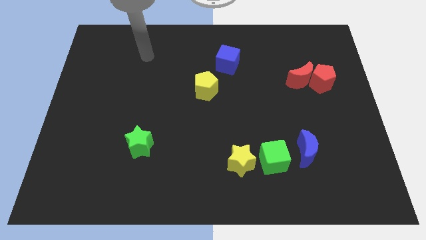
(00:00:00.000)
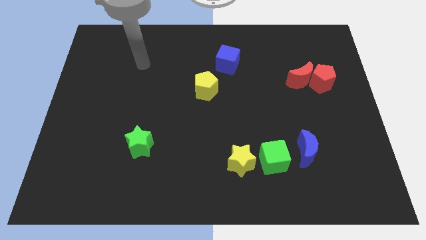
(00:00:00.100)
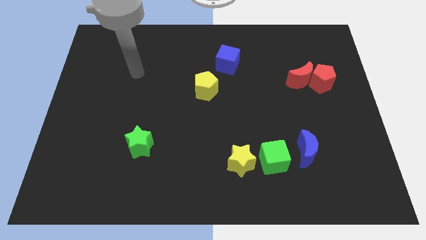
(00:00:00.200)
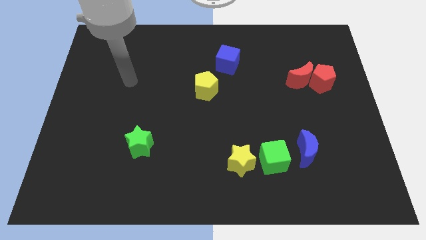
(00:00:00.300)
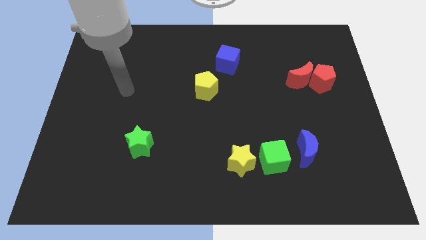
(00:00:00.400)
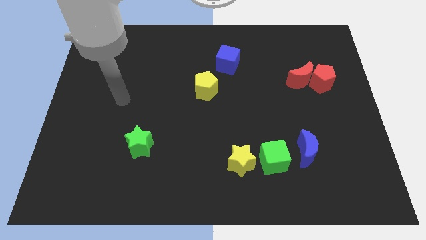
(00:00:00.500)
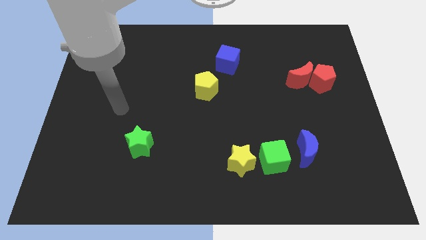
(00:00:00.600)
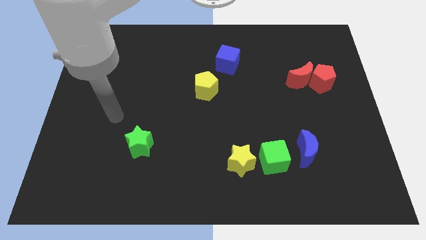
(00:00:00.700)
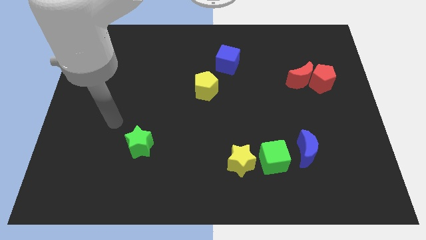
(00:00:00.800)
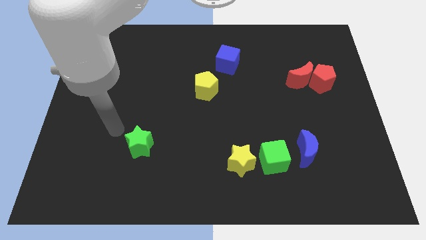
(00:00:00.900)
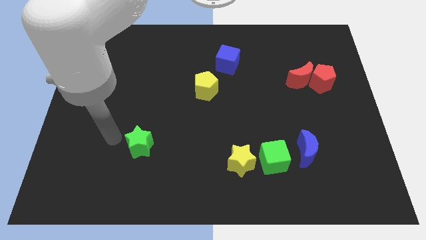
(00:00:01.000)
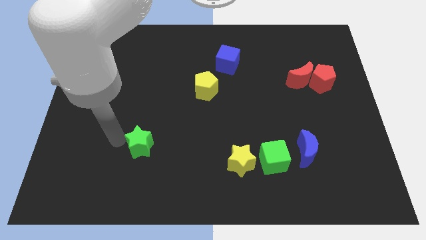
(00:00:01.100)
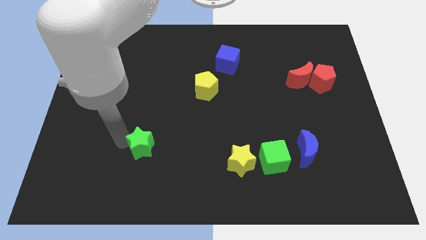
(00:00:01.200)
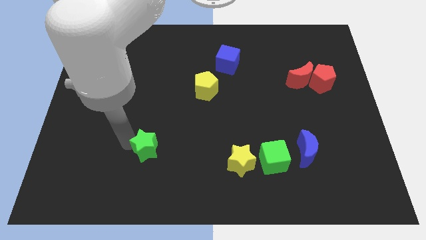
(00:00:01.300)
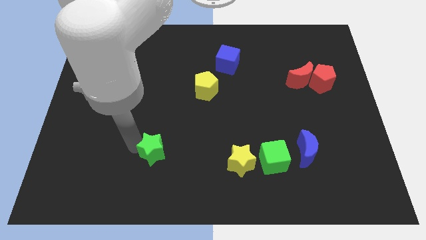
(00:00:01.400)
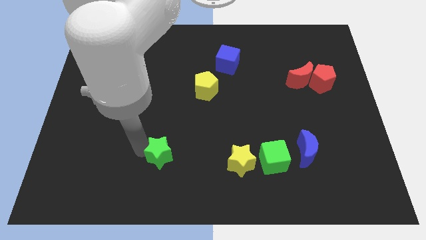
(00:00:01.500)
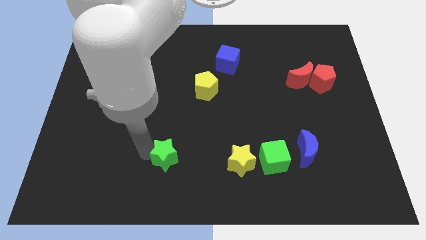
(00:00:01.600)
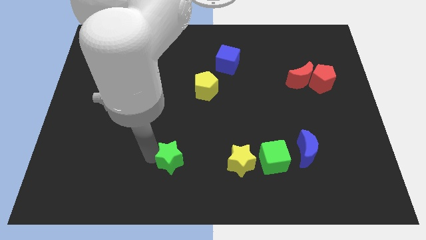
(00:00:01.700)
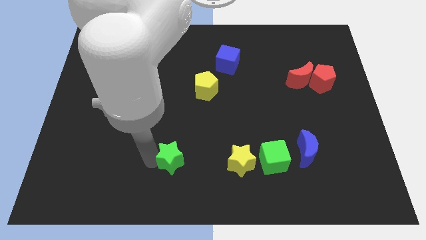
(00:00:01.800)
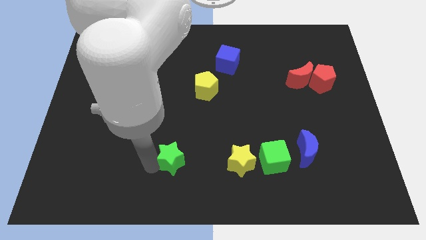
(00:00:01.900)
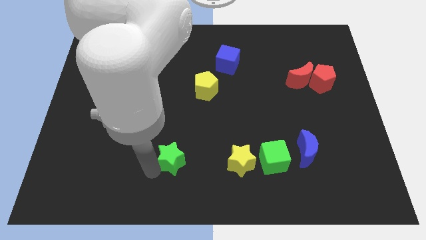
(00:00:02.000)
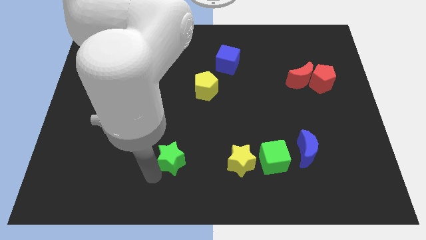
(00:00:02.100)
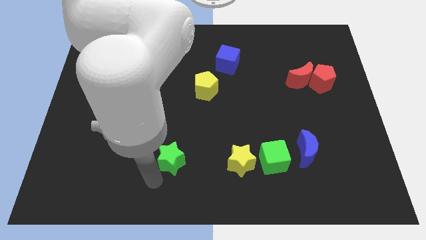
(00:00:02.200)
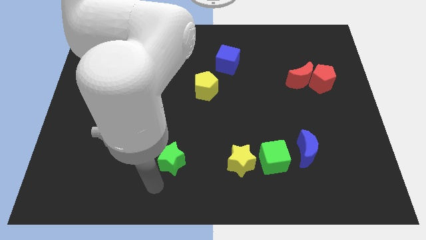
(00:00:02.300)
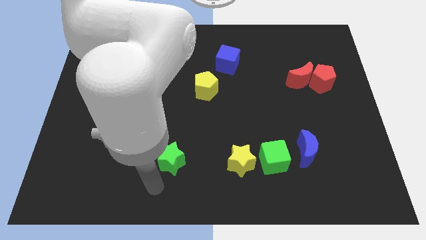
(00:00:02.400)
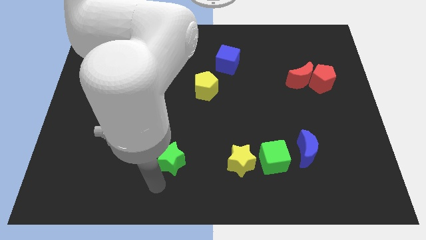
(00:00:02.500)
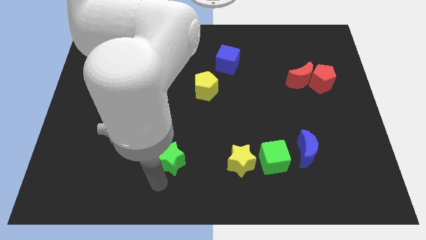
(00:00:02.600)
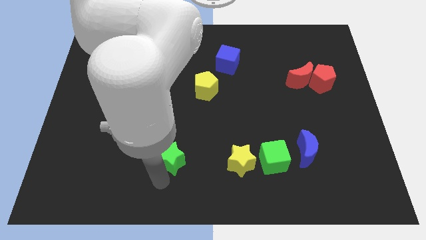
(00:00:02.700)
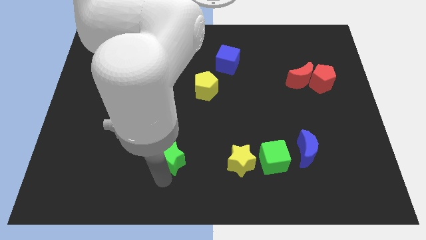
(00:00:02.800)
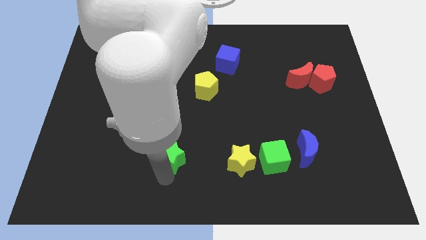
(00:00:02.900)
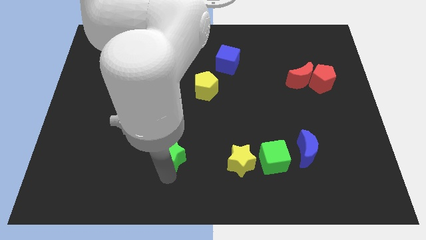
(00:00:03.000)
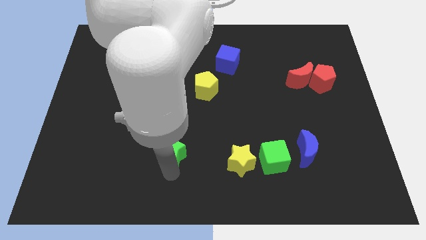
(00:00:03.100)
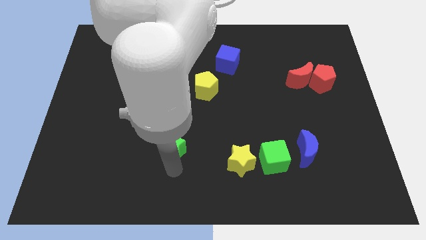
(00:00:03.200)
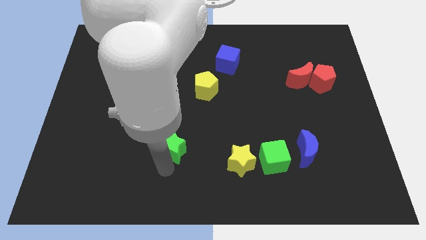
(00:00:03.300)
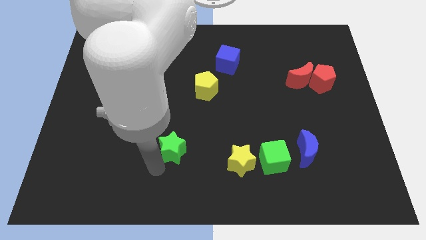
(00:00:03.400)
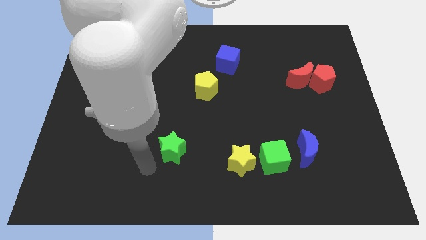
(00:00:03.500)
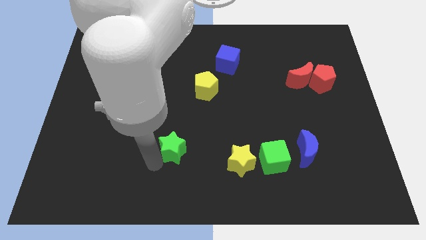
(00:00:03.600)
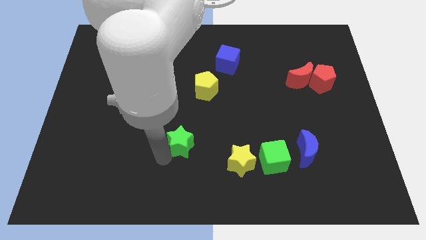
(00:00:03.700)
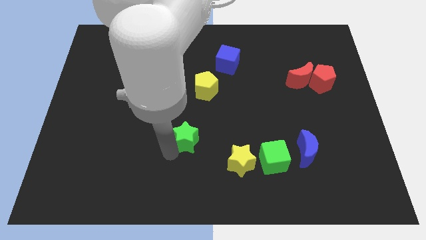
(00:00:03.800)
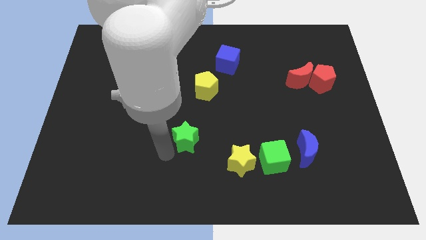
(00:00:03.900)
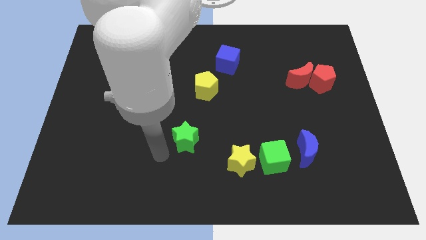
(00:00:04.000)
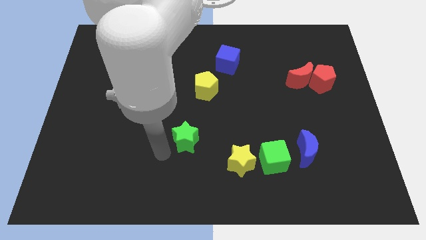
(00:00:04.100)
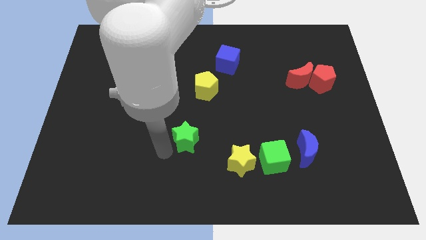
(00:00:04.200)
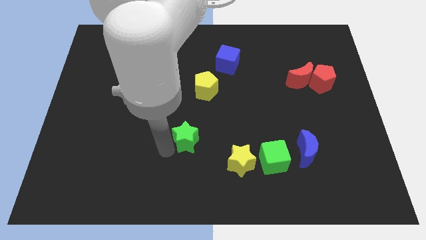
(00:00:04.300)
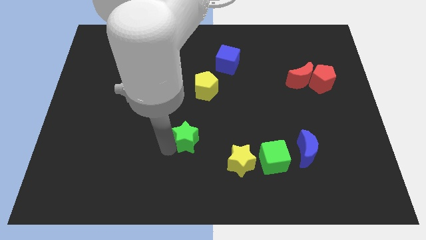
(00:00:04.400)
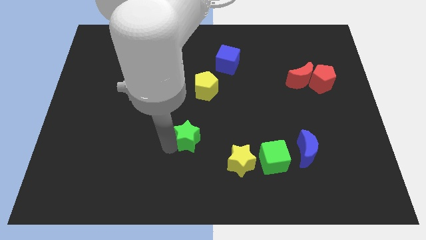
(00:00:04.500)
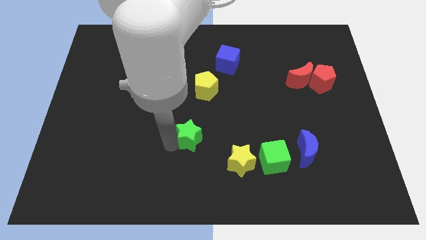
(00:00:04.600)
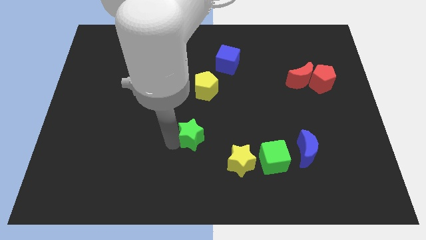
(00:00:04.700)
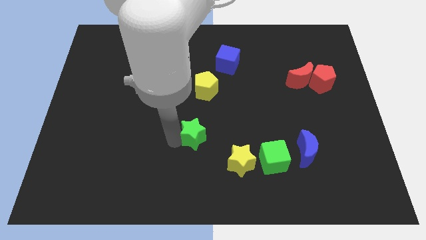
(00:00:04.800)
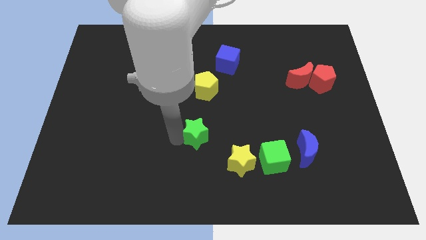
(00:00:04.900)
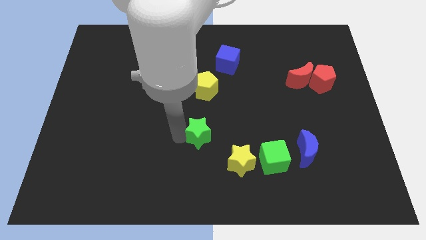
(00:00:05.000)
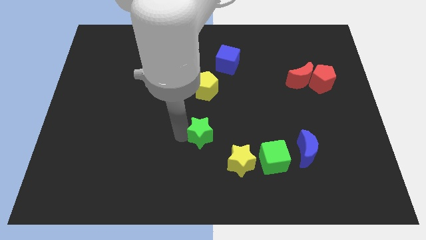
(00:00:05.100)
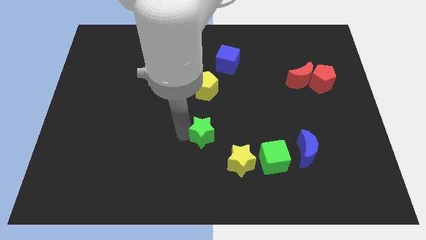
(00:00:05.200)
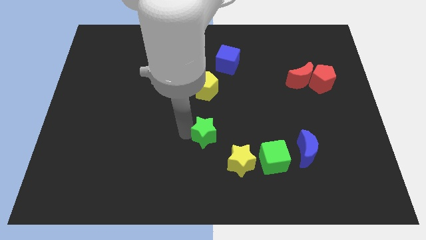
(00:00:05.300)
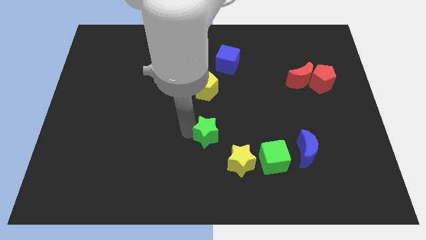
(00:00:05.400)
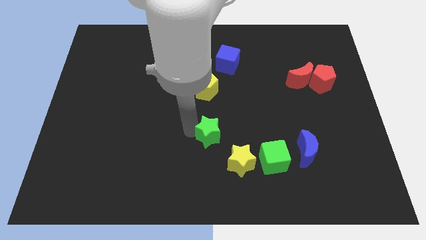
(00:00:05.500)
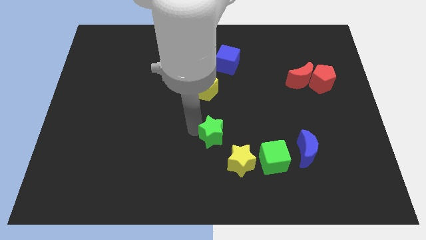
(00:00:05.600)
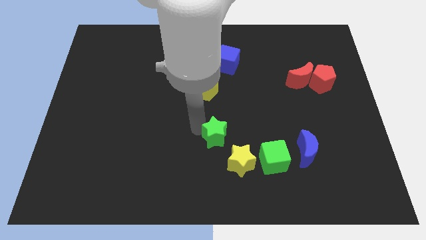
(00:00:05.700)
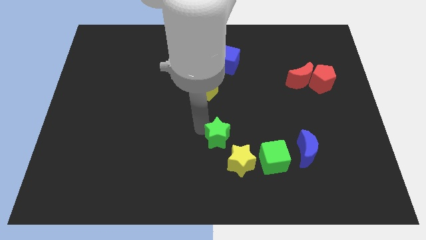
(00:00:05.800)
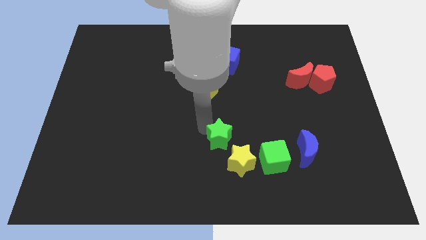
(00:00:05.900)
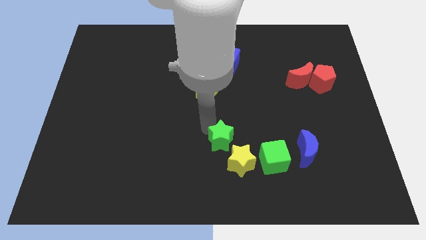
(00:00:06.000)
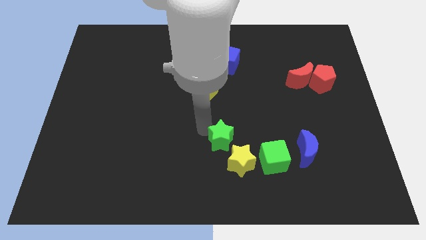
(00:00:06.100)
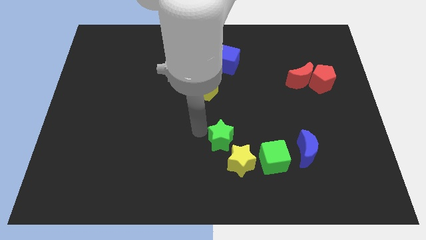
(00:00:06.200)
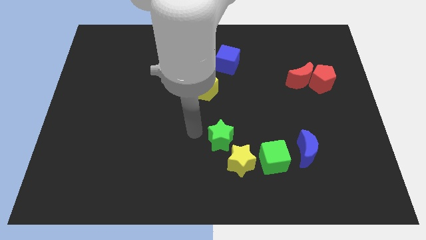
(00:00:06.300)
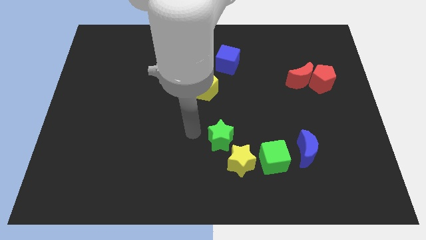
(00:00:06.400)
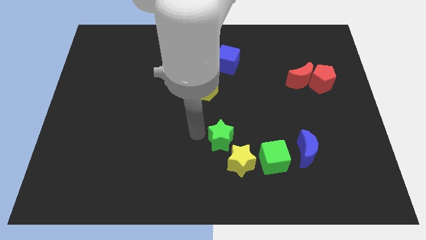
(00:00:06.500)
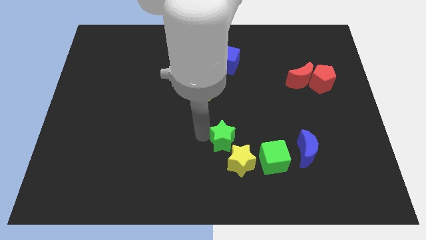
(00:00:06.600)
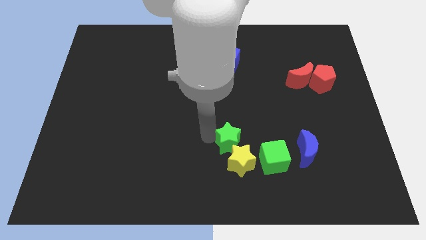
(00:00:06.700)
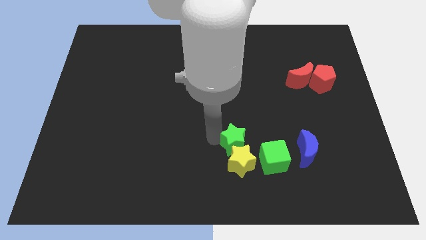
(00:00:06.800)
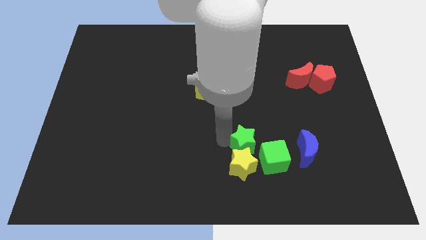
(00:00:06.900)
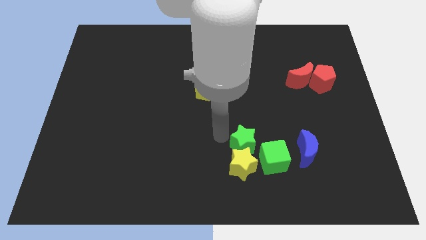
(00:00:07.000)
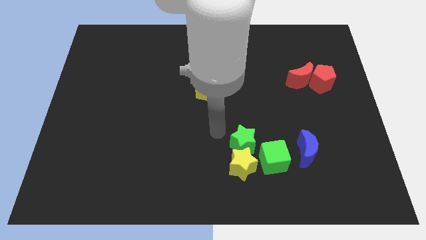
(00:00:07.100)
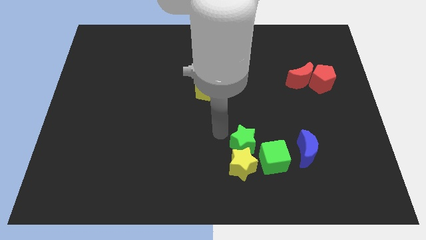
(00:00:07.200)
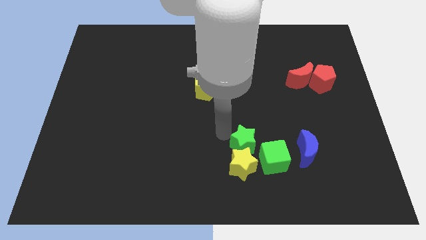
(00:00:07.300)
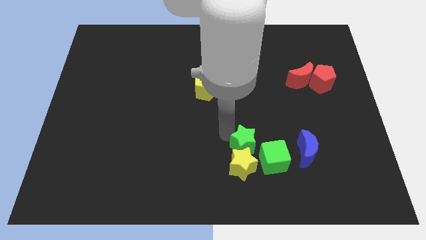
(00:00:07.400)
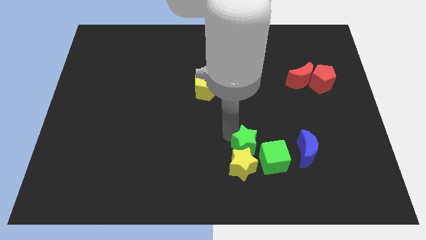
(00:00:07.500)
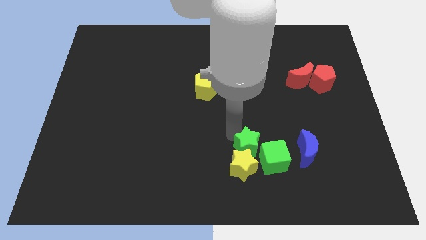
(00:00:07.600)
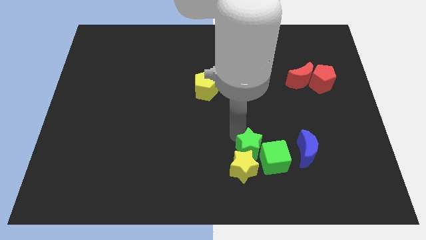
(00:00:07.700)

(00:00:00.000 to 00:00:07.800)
move the green star towards the green cube
